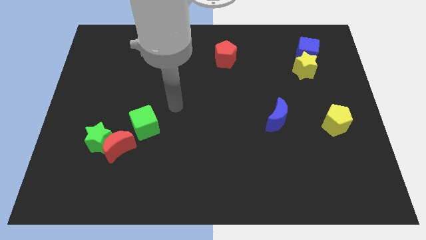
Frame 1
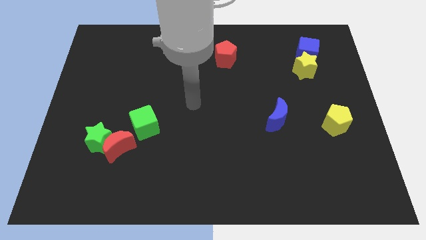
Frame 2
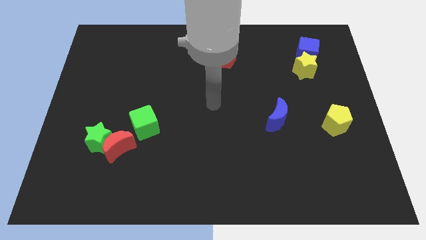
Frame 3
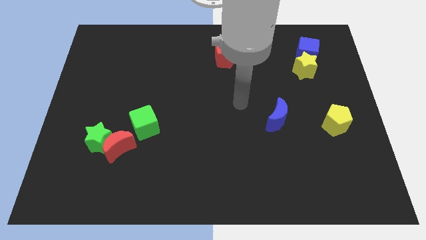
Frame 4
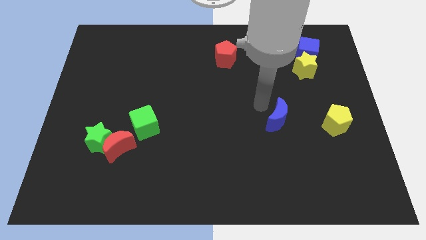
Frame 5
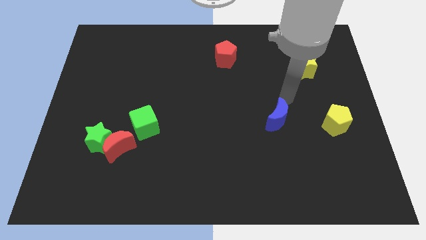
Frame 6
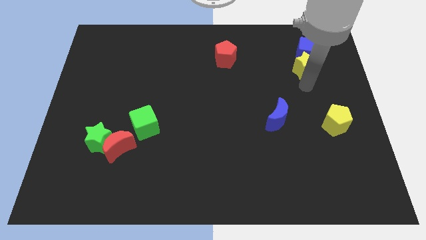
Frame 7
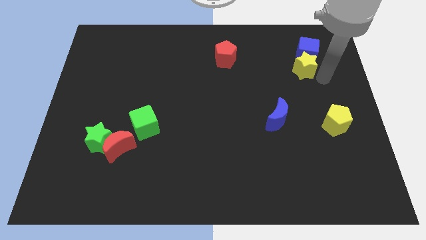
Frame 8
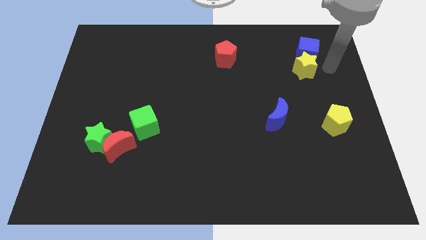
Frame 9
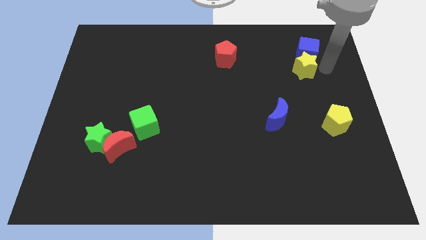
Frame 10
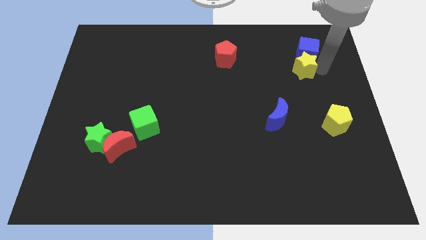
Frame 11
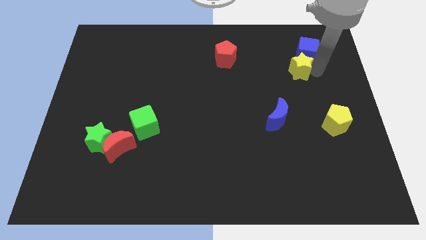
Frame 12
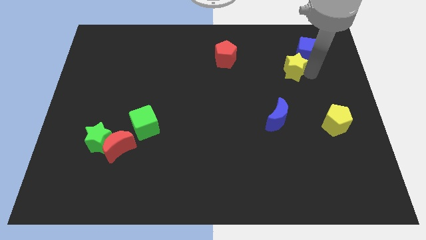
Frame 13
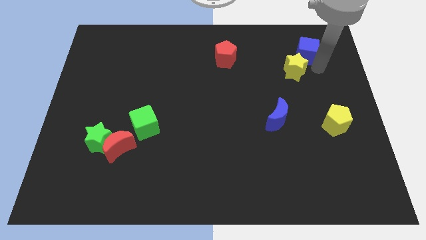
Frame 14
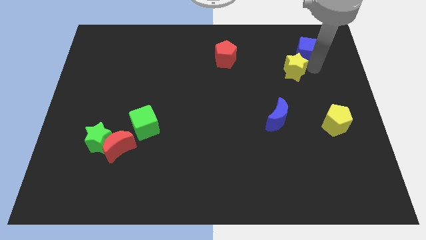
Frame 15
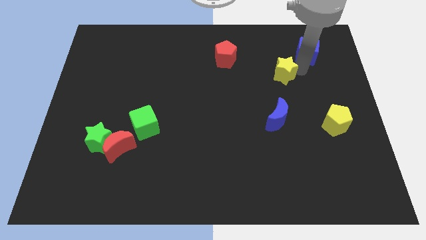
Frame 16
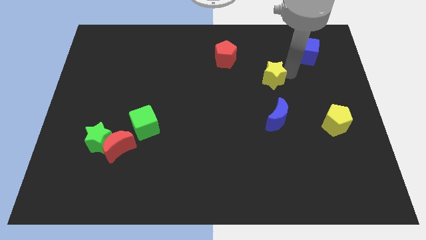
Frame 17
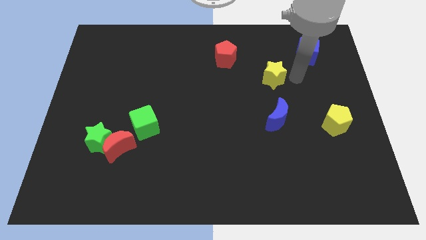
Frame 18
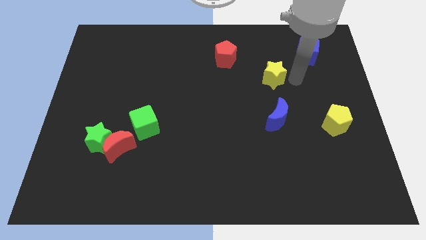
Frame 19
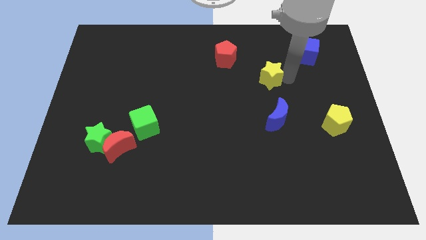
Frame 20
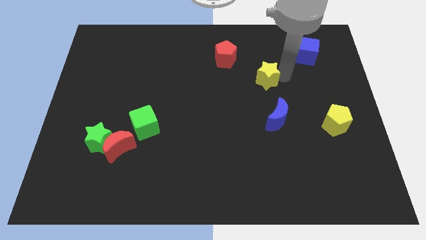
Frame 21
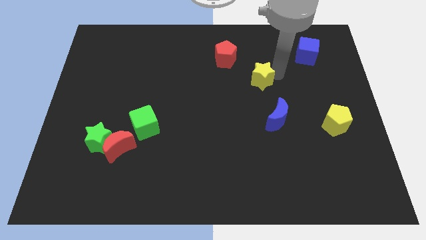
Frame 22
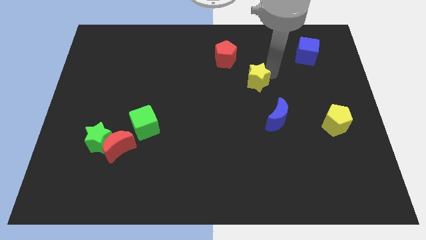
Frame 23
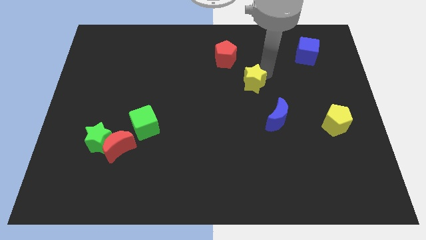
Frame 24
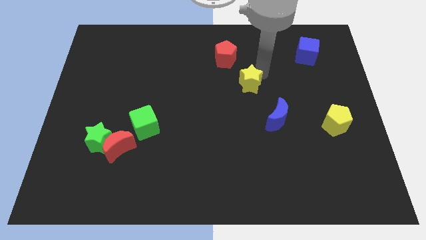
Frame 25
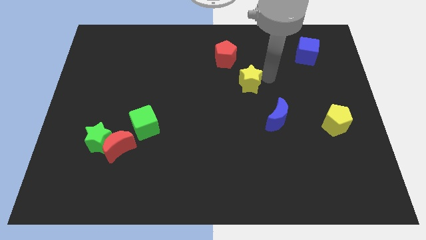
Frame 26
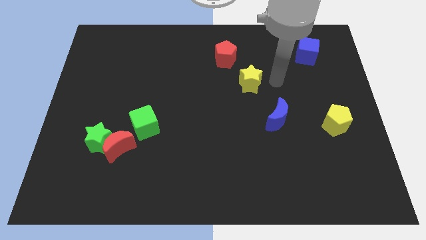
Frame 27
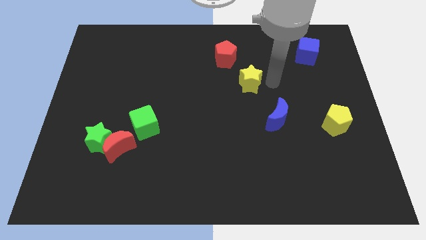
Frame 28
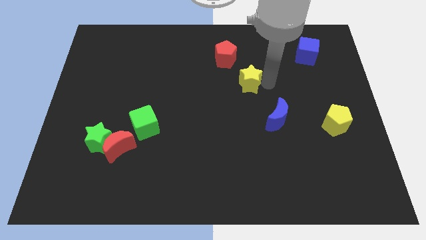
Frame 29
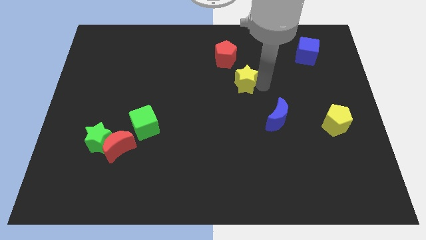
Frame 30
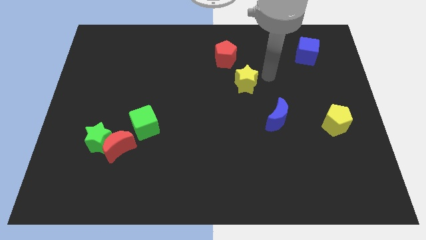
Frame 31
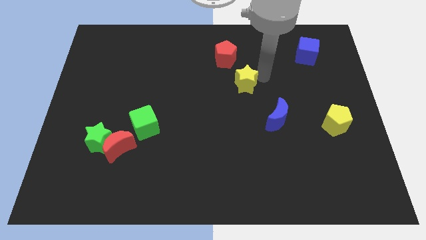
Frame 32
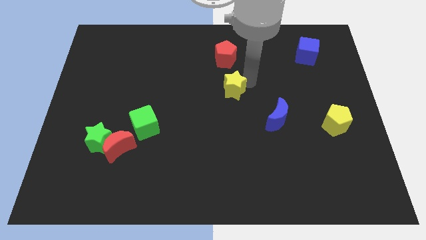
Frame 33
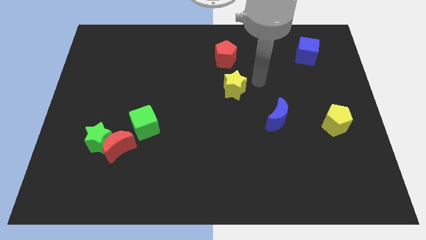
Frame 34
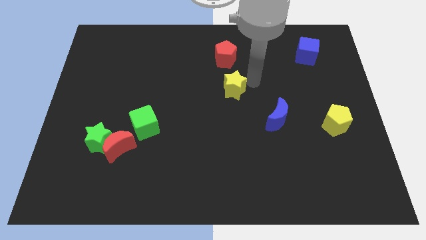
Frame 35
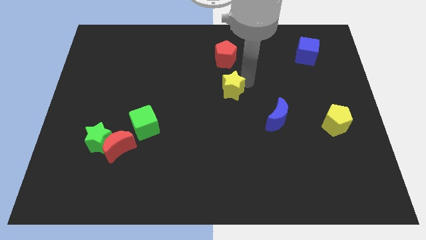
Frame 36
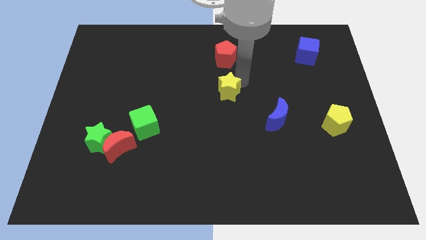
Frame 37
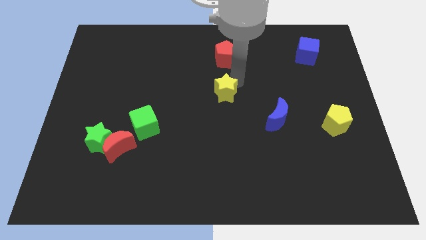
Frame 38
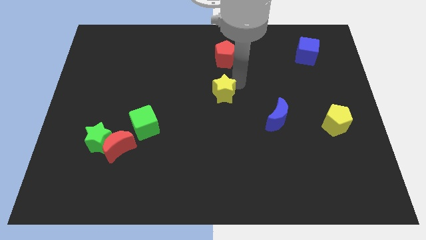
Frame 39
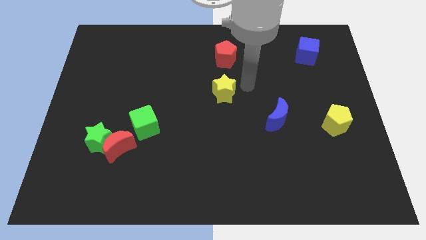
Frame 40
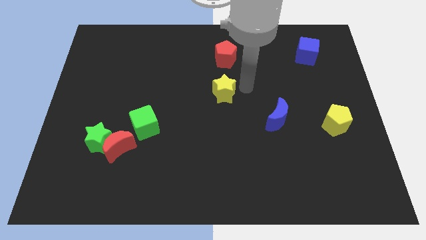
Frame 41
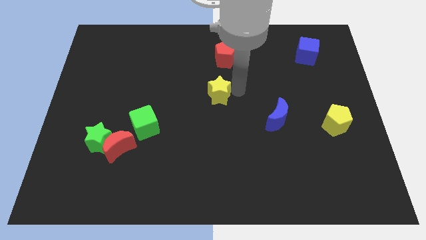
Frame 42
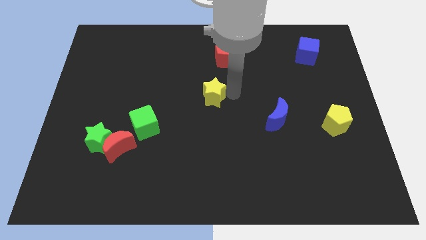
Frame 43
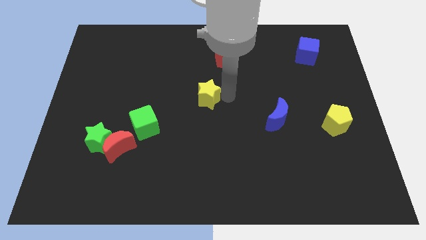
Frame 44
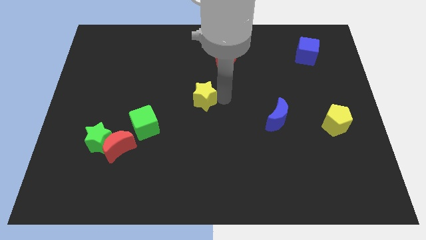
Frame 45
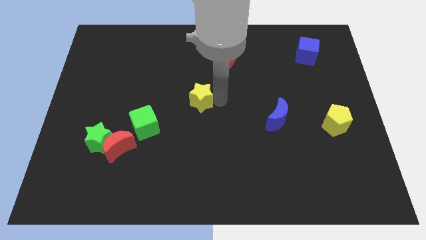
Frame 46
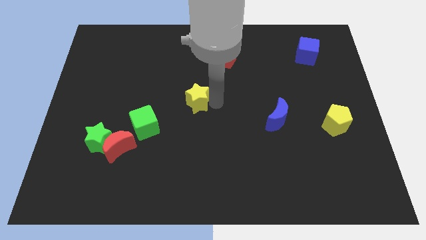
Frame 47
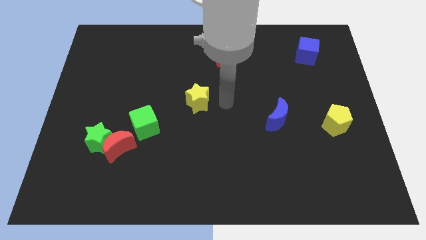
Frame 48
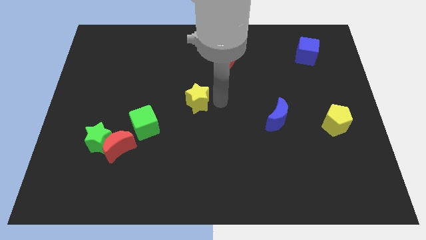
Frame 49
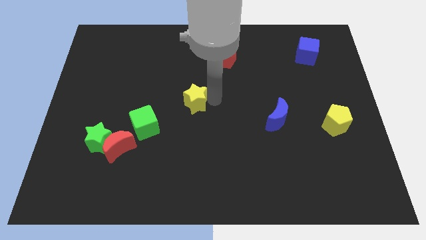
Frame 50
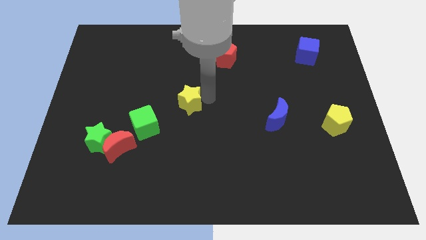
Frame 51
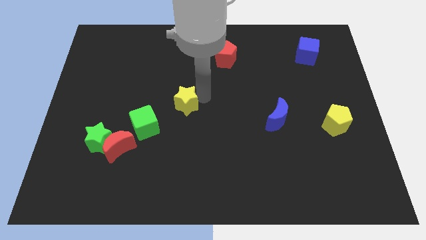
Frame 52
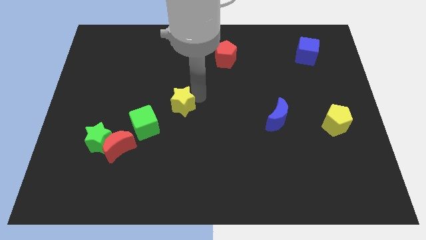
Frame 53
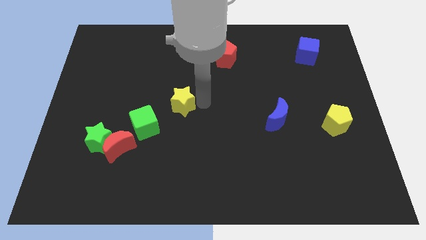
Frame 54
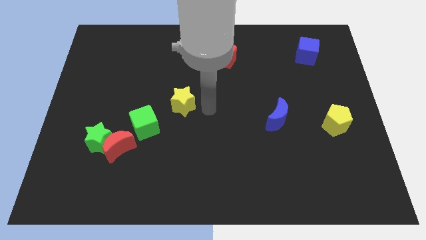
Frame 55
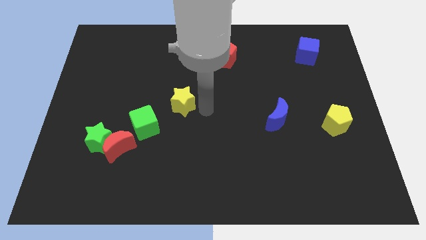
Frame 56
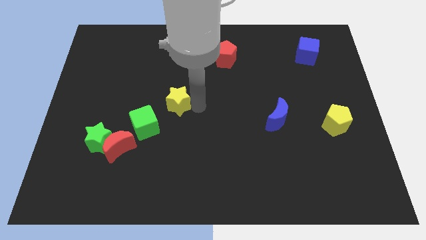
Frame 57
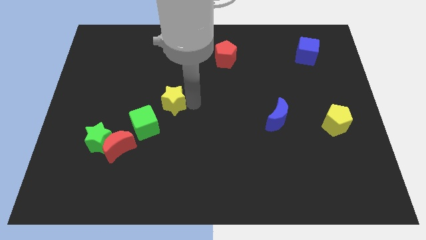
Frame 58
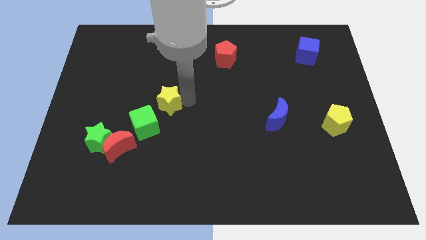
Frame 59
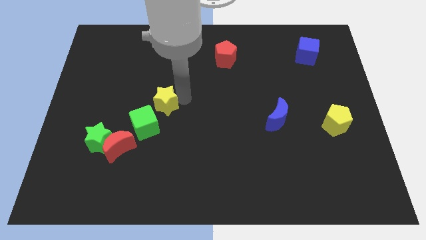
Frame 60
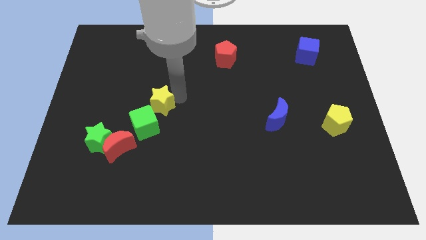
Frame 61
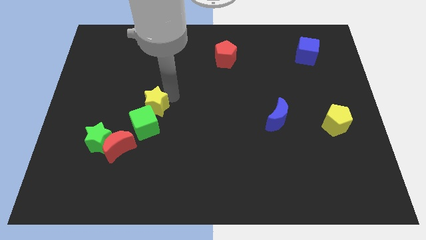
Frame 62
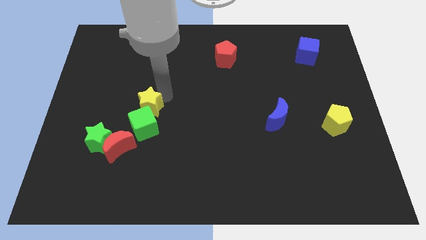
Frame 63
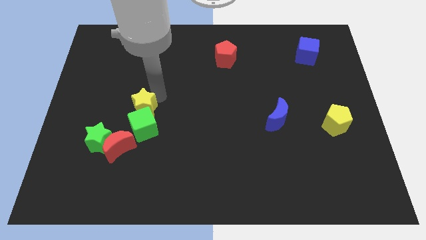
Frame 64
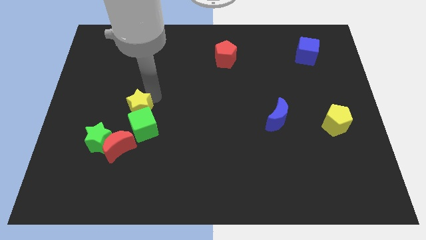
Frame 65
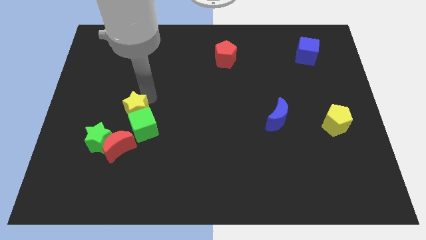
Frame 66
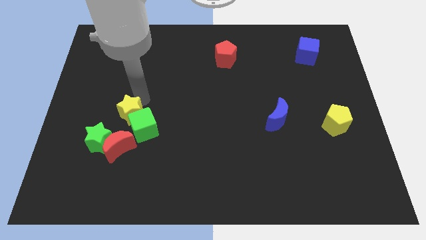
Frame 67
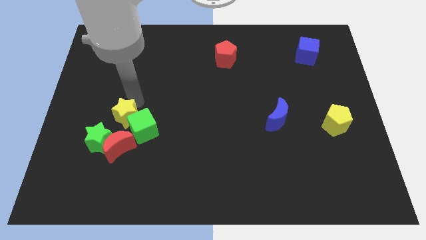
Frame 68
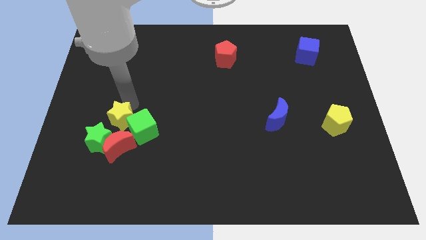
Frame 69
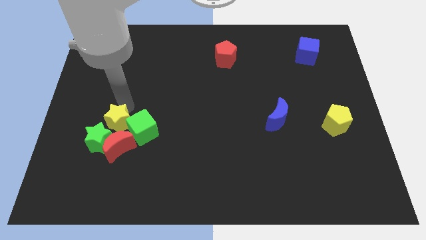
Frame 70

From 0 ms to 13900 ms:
put the yellow star next to the green star
